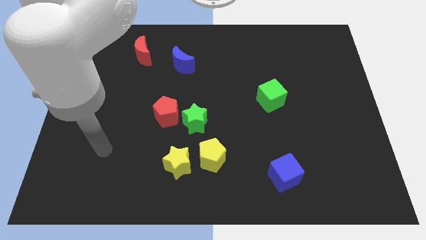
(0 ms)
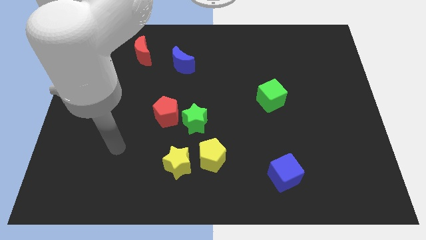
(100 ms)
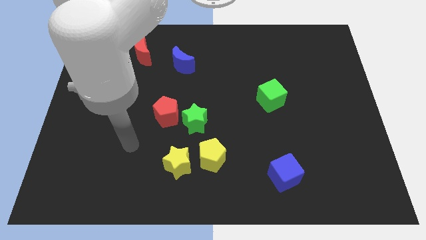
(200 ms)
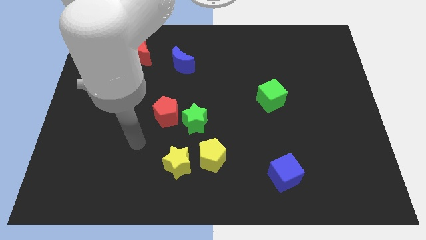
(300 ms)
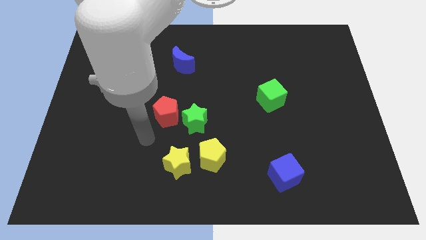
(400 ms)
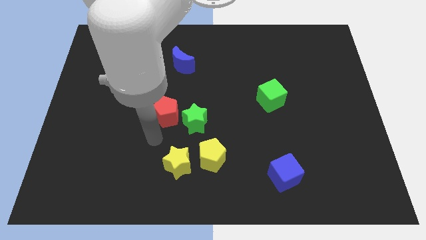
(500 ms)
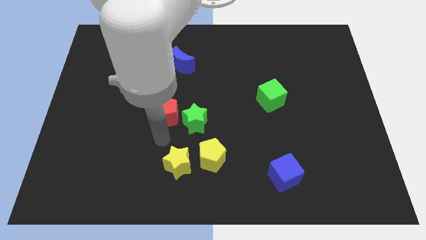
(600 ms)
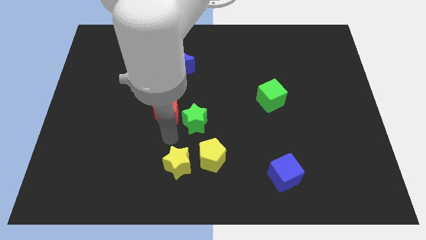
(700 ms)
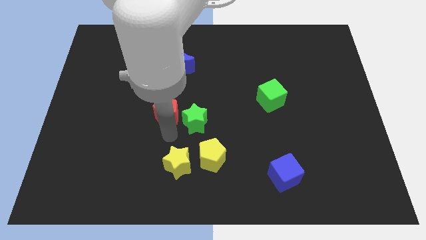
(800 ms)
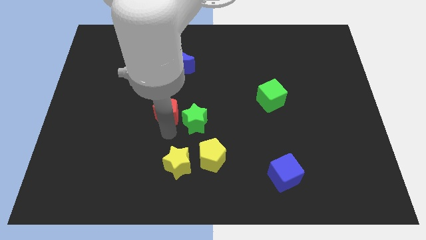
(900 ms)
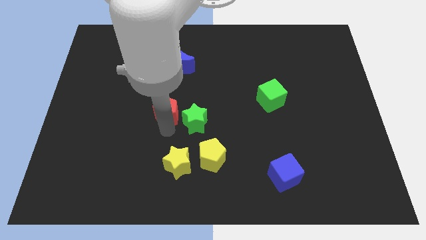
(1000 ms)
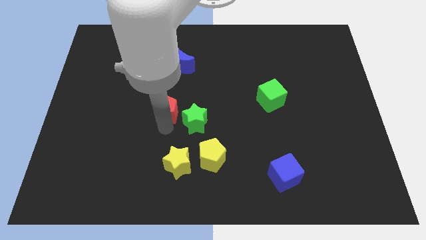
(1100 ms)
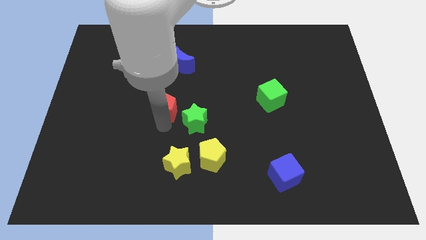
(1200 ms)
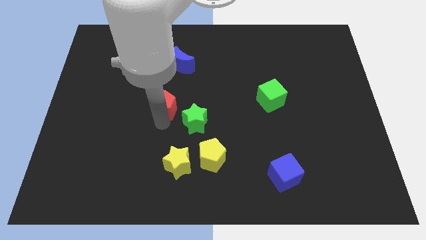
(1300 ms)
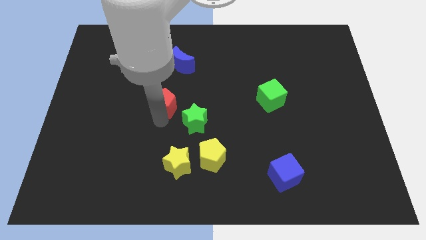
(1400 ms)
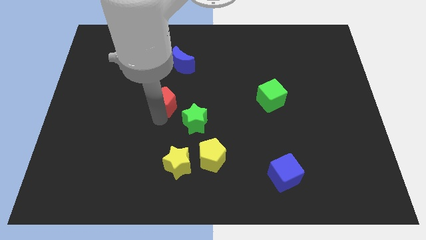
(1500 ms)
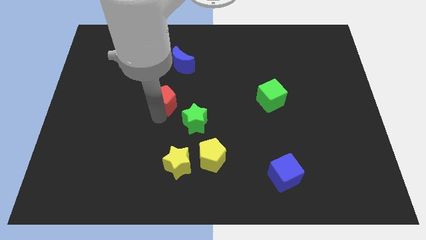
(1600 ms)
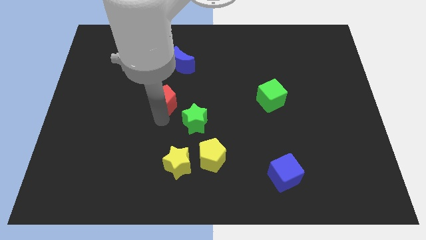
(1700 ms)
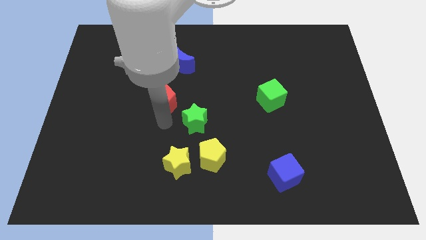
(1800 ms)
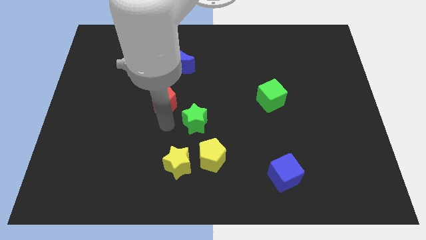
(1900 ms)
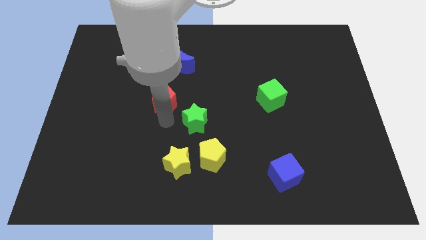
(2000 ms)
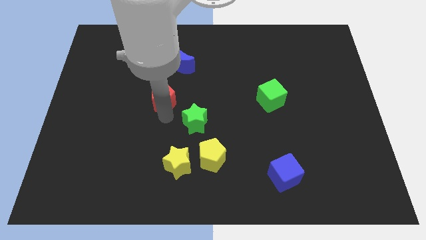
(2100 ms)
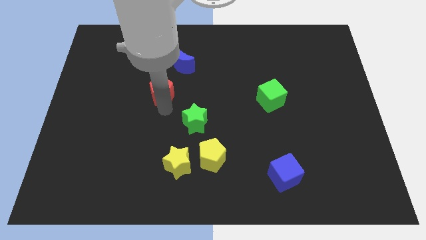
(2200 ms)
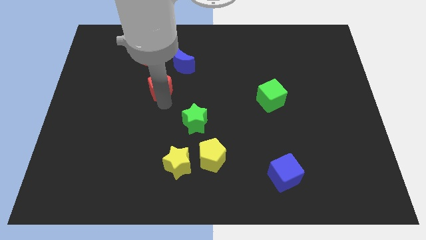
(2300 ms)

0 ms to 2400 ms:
push the red pentagon a little bit upwards

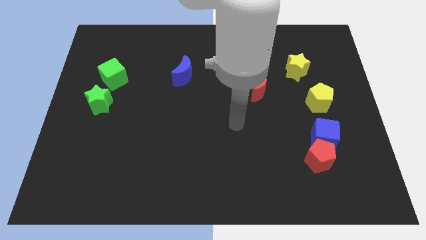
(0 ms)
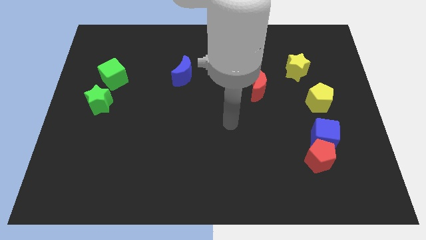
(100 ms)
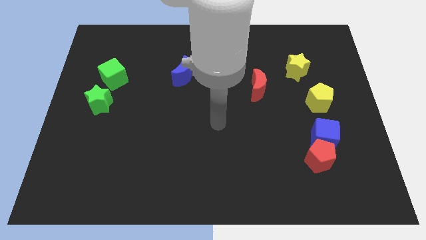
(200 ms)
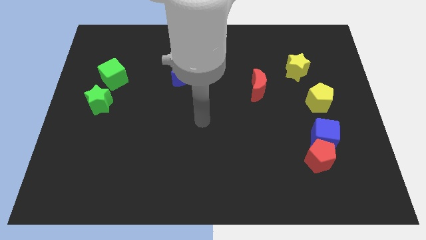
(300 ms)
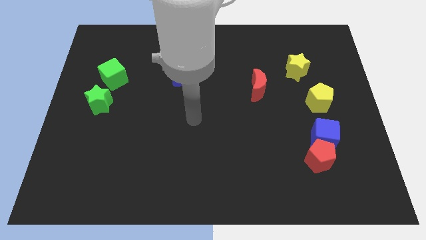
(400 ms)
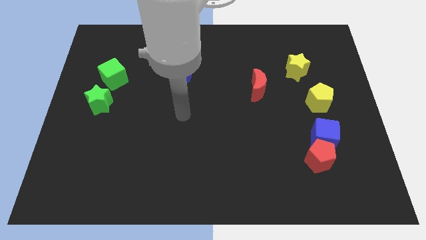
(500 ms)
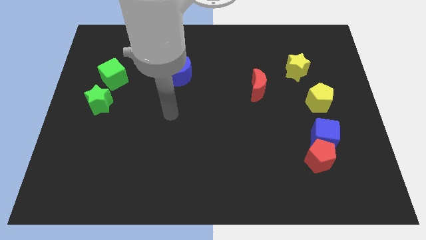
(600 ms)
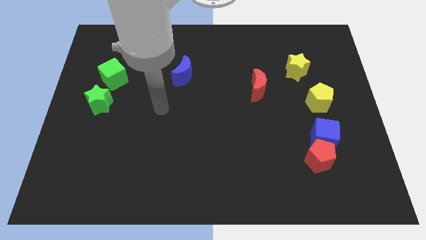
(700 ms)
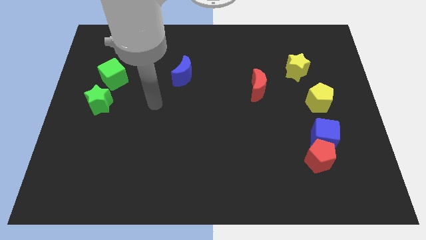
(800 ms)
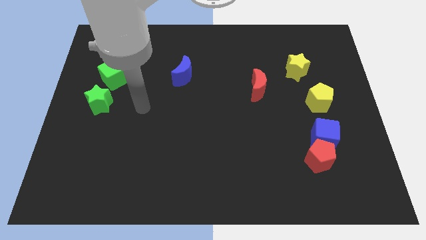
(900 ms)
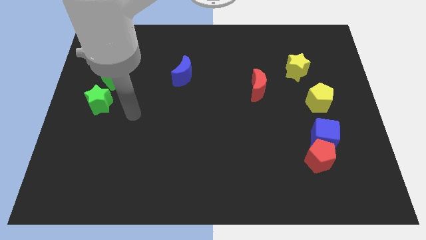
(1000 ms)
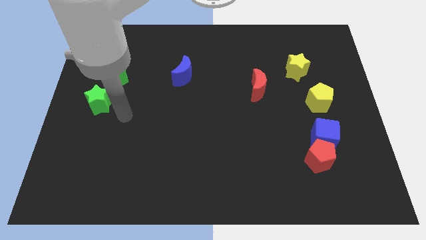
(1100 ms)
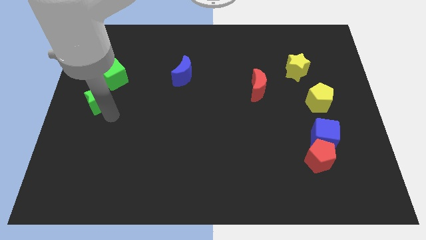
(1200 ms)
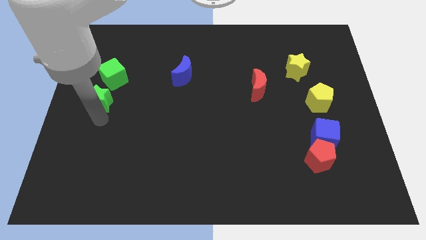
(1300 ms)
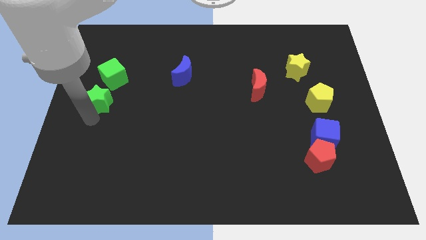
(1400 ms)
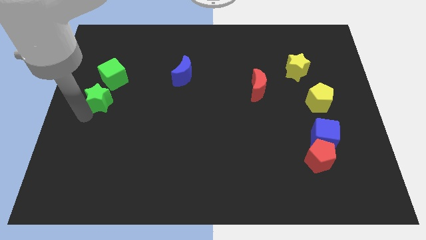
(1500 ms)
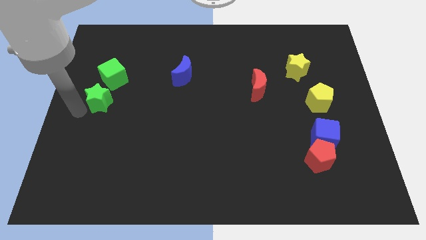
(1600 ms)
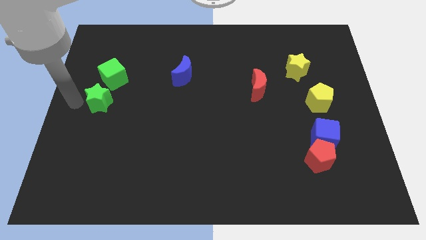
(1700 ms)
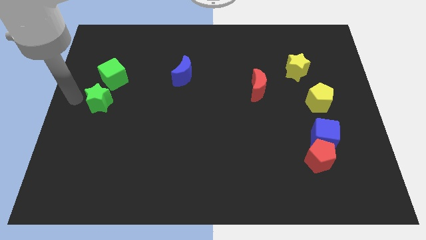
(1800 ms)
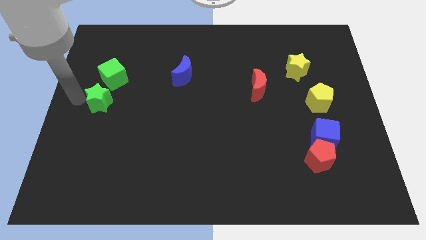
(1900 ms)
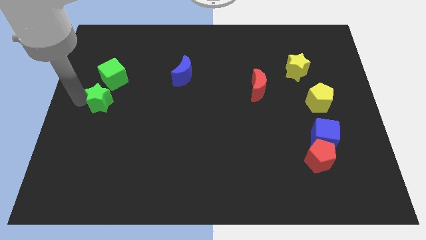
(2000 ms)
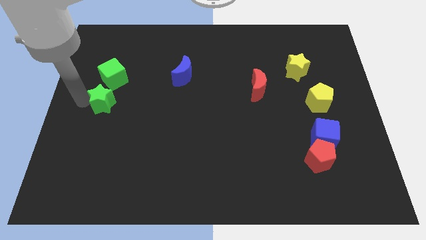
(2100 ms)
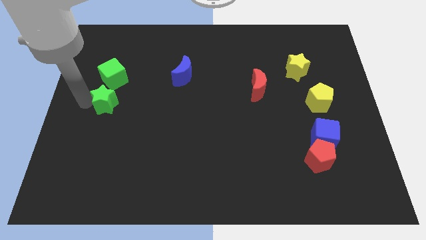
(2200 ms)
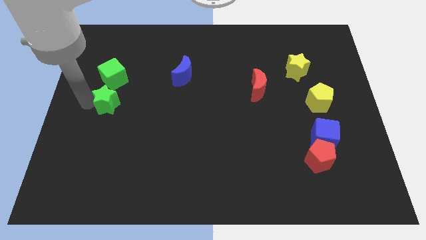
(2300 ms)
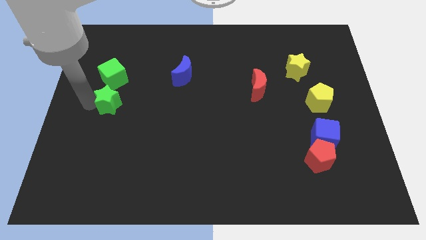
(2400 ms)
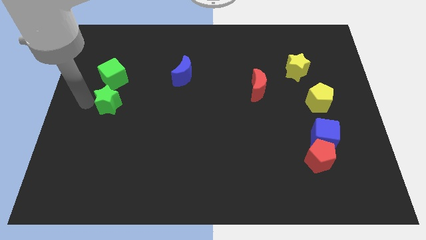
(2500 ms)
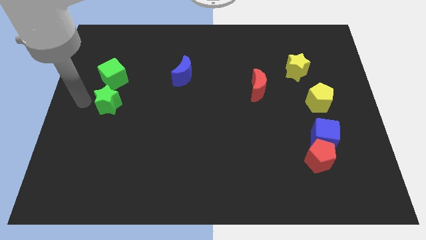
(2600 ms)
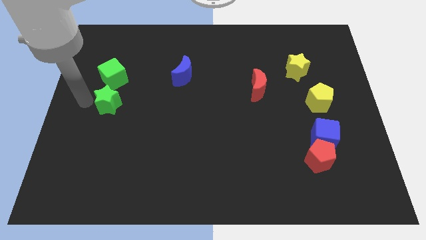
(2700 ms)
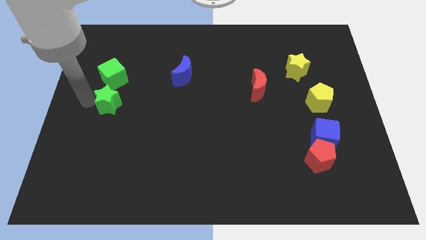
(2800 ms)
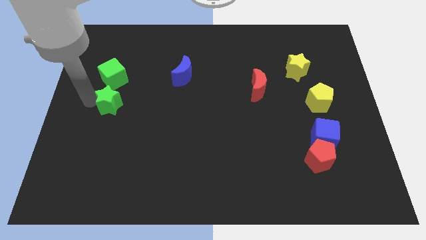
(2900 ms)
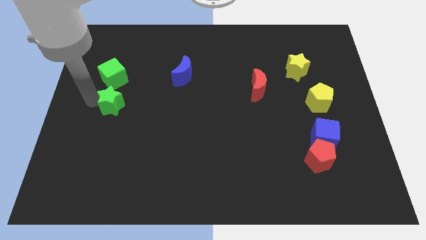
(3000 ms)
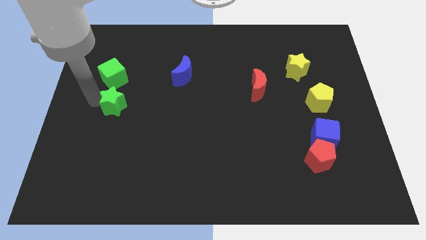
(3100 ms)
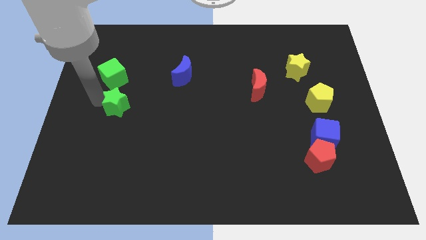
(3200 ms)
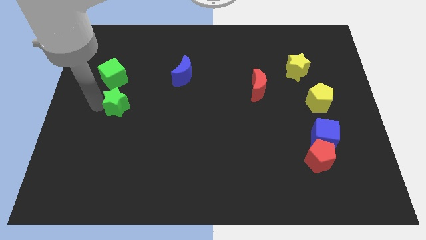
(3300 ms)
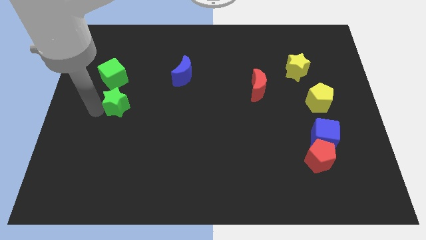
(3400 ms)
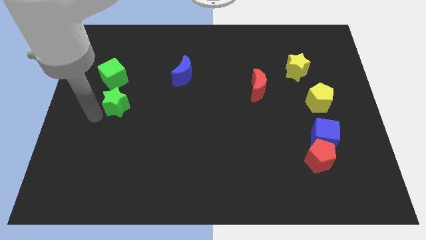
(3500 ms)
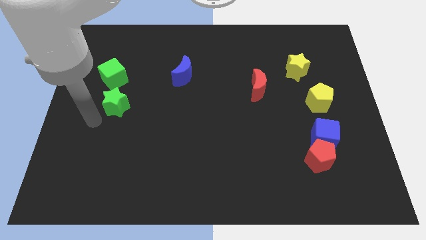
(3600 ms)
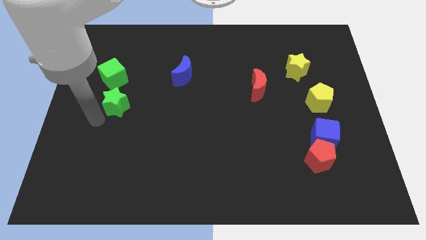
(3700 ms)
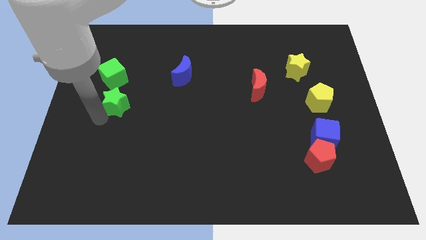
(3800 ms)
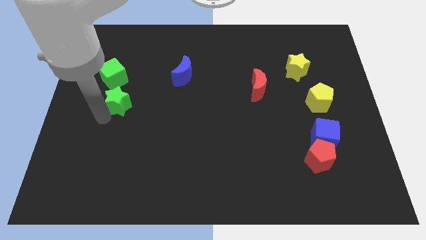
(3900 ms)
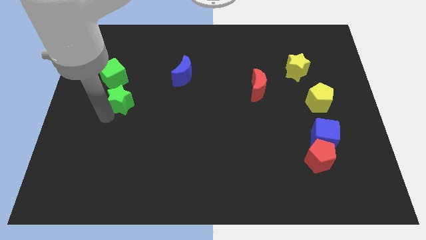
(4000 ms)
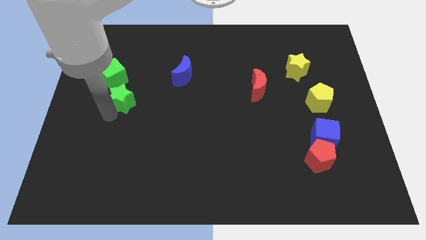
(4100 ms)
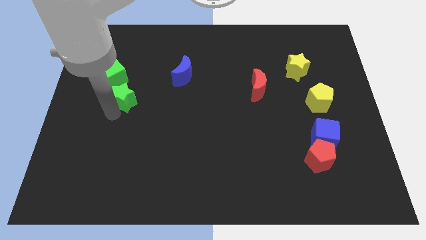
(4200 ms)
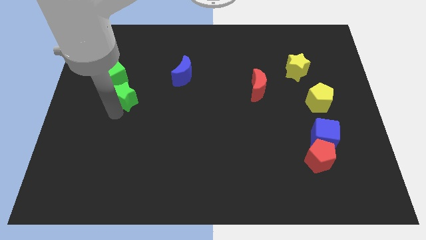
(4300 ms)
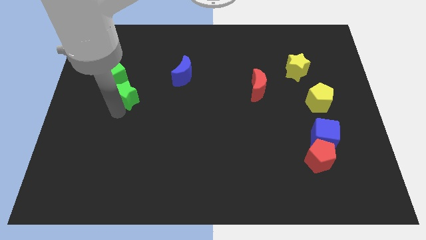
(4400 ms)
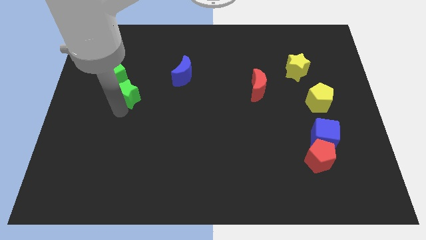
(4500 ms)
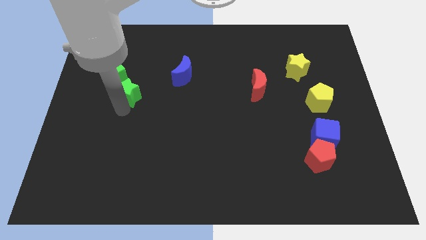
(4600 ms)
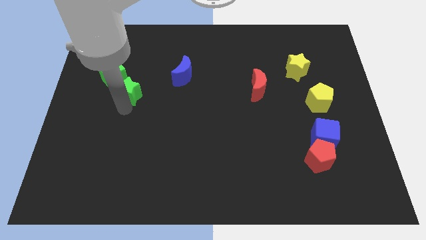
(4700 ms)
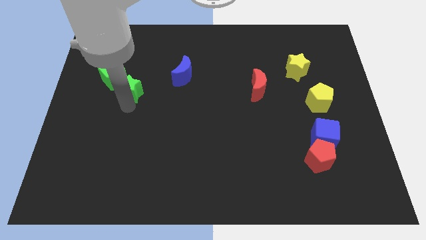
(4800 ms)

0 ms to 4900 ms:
move the green star up and to the right a bit

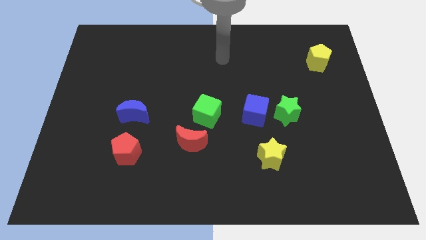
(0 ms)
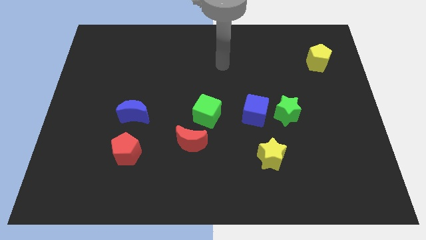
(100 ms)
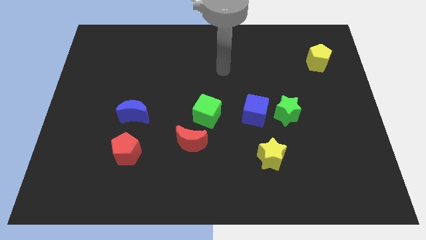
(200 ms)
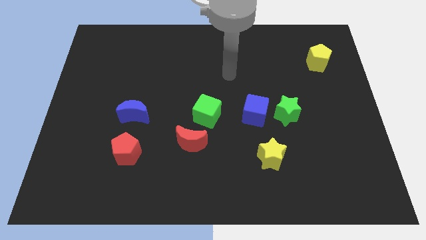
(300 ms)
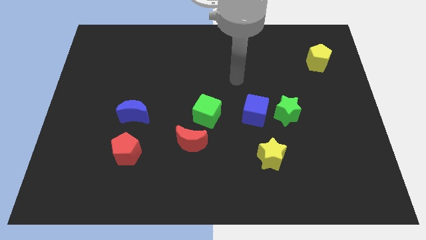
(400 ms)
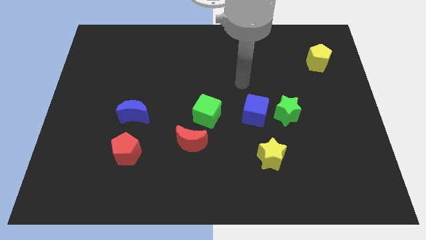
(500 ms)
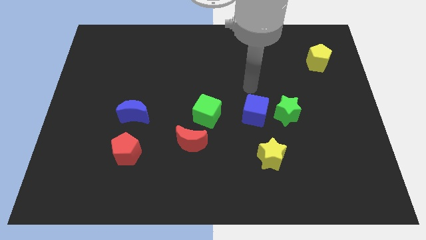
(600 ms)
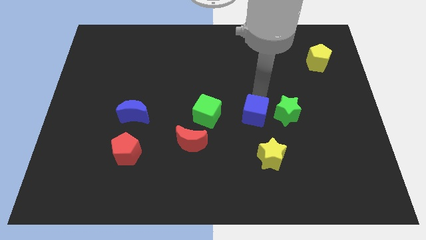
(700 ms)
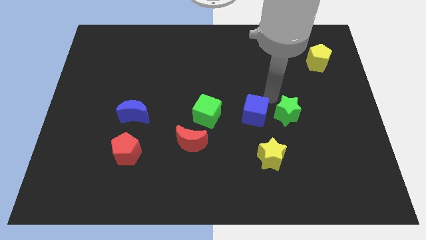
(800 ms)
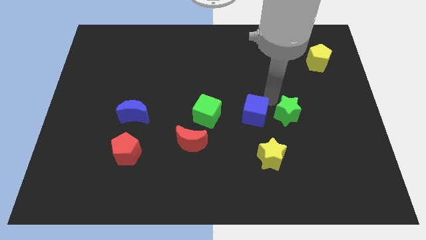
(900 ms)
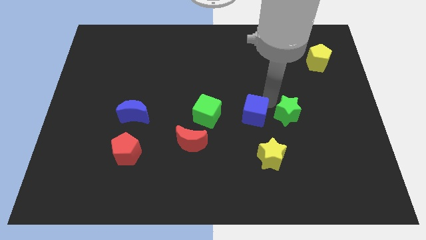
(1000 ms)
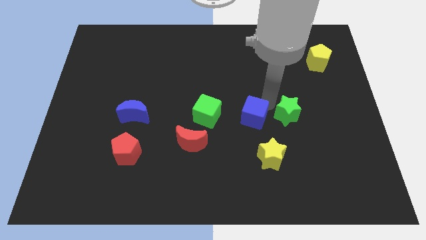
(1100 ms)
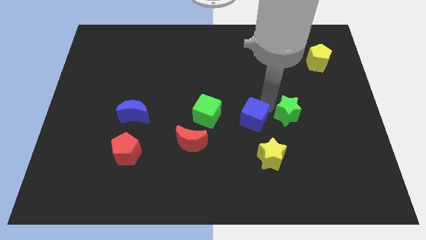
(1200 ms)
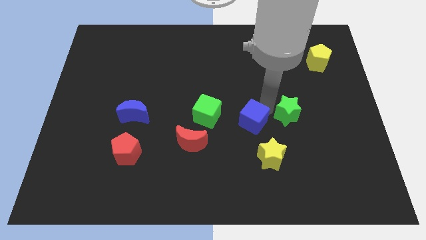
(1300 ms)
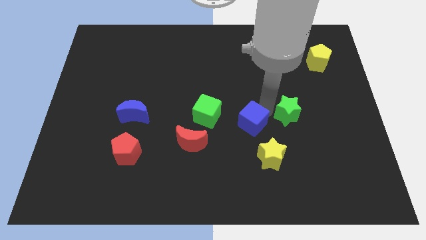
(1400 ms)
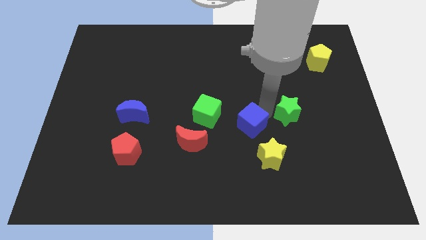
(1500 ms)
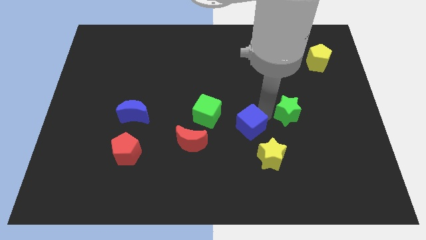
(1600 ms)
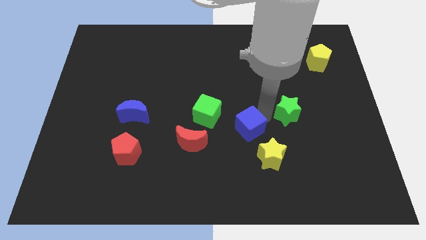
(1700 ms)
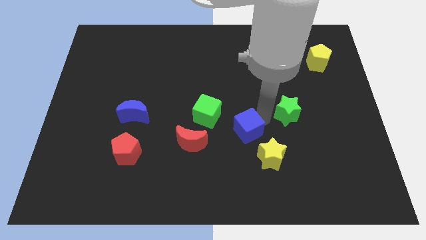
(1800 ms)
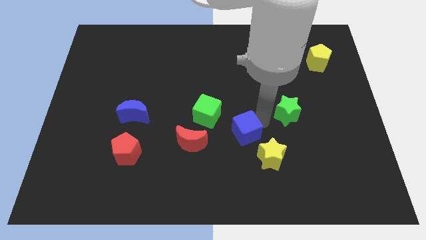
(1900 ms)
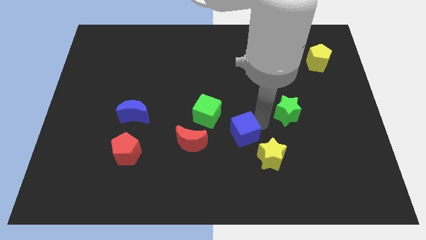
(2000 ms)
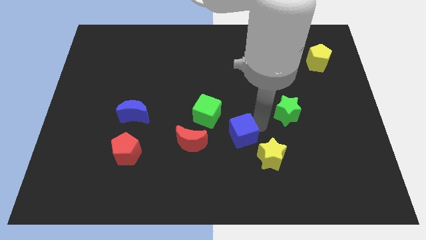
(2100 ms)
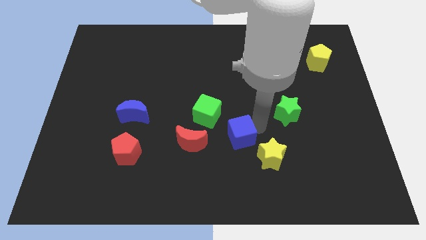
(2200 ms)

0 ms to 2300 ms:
move the blue cube down and then to the left a little
